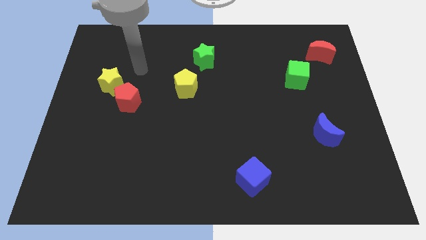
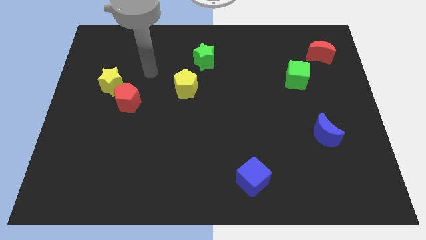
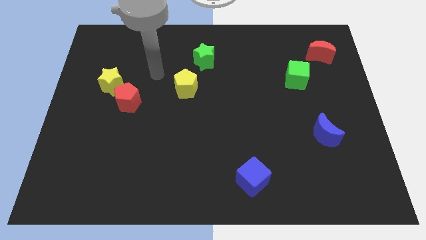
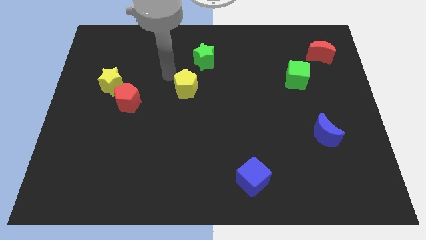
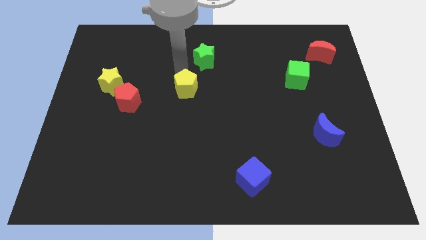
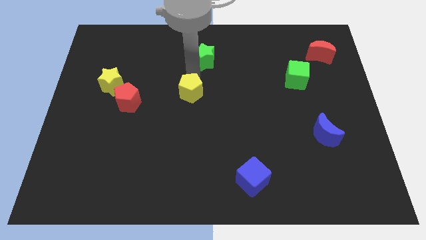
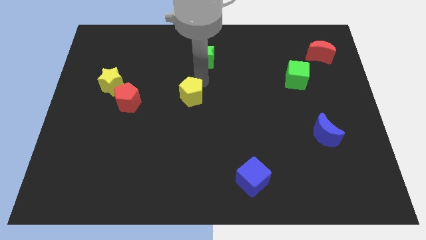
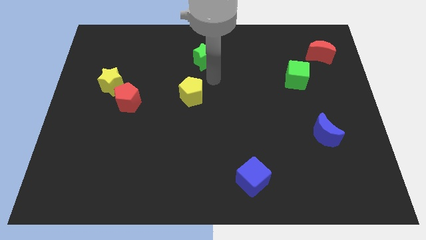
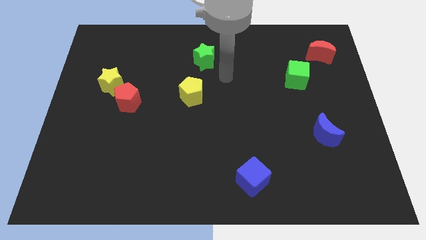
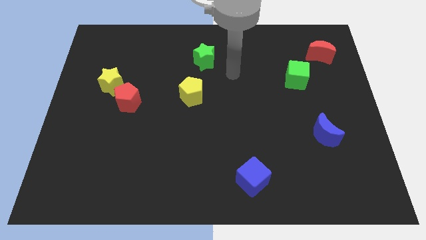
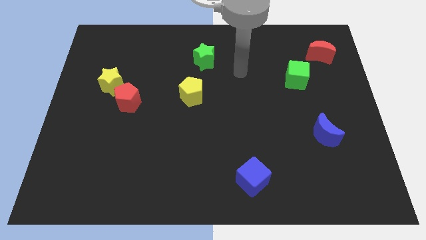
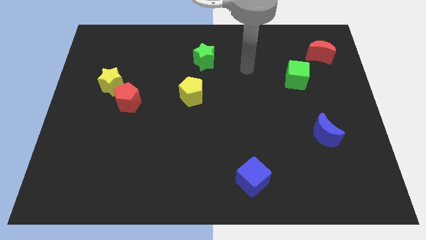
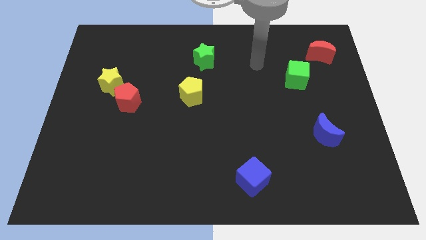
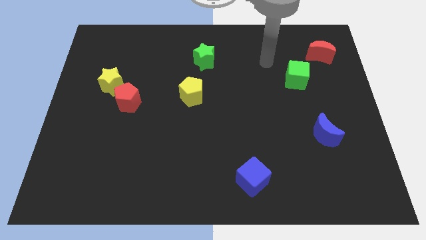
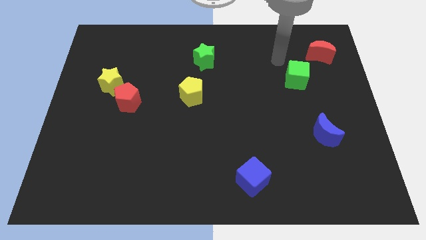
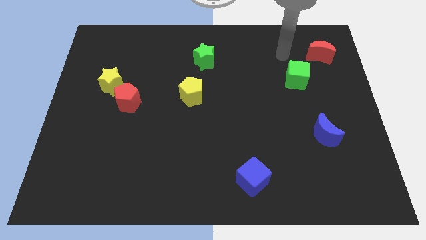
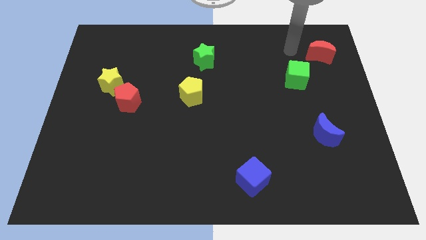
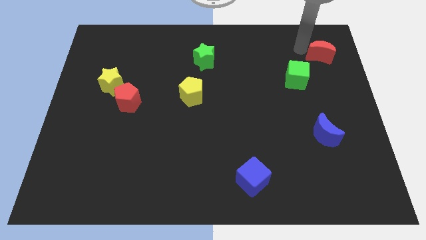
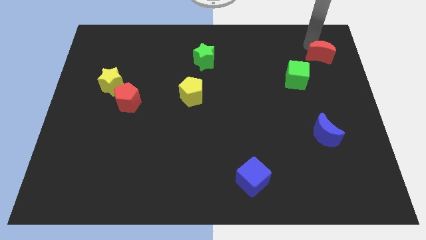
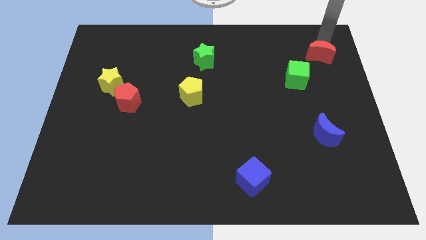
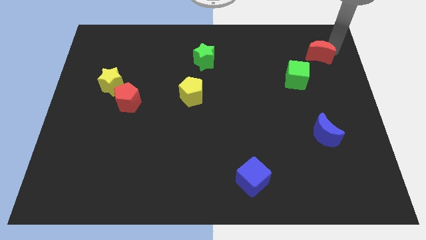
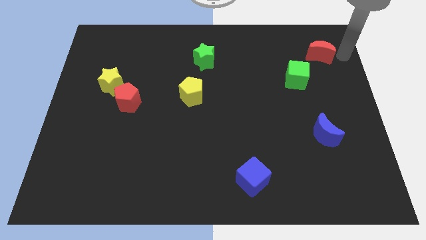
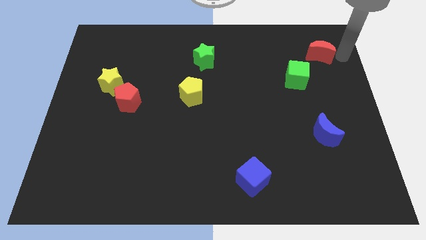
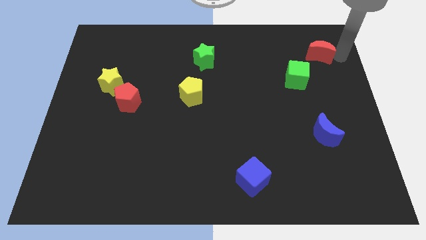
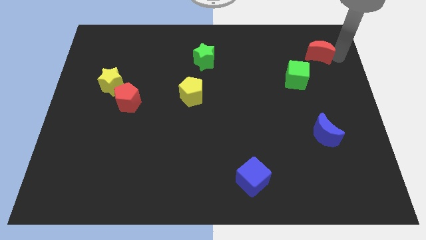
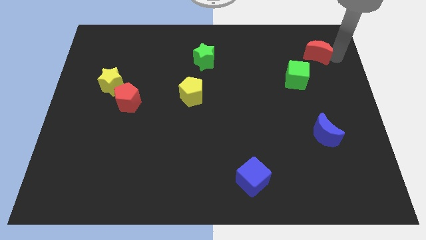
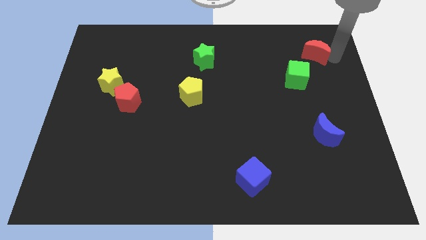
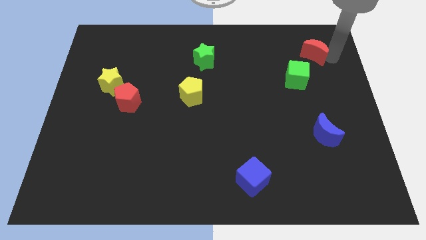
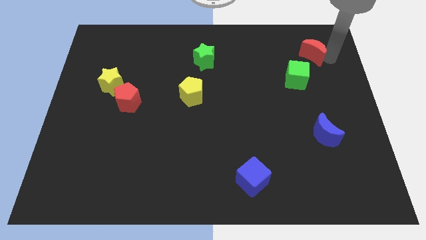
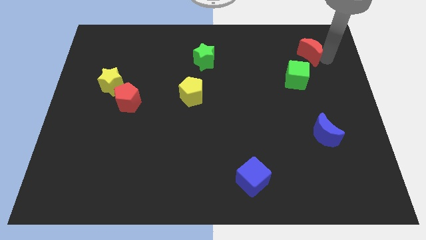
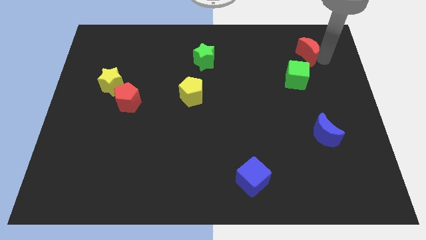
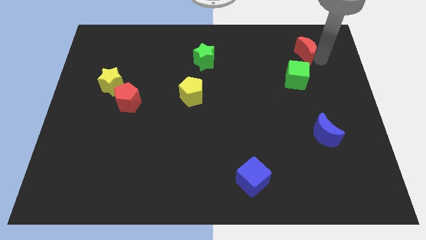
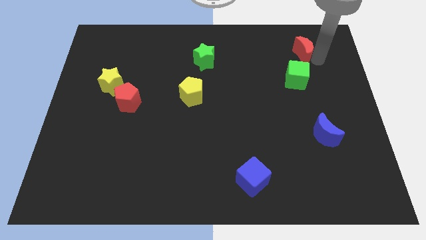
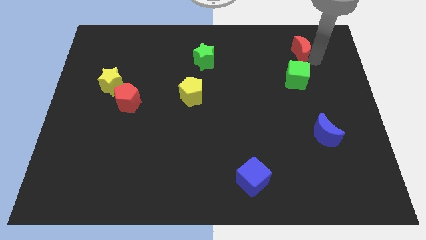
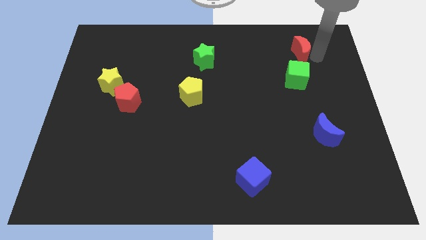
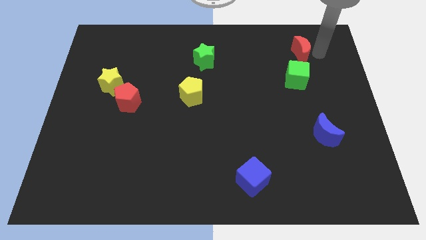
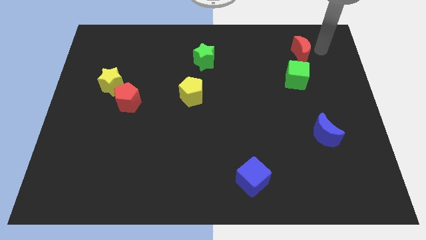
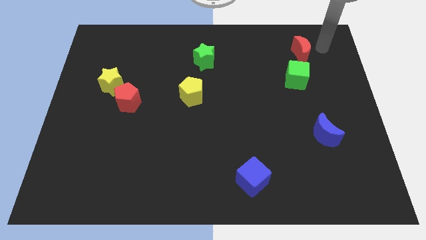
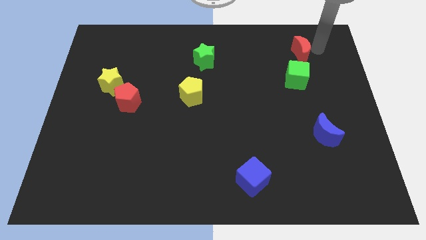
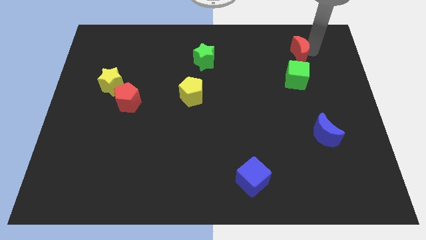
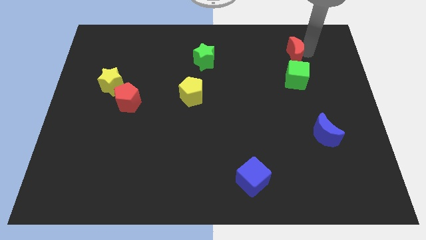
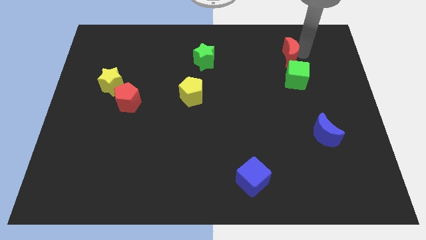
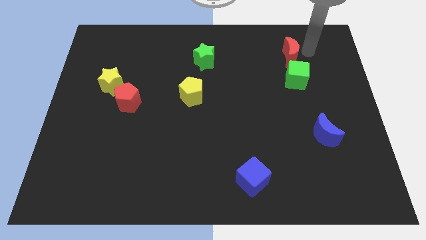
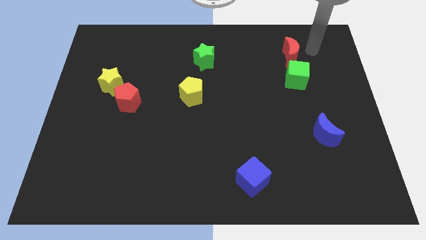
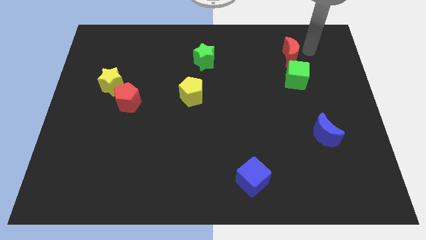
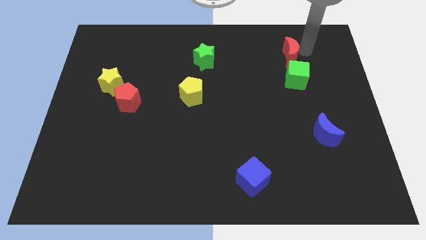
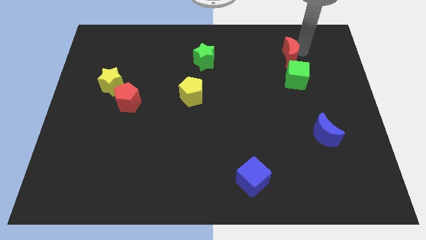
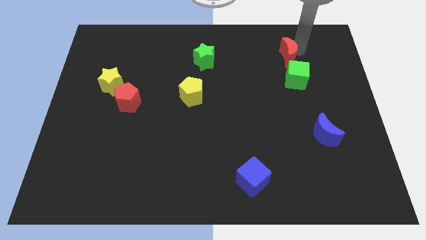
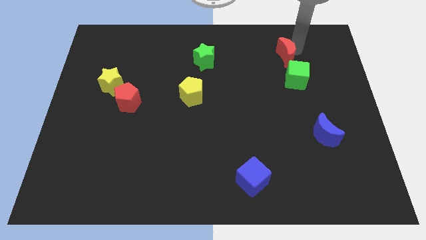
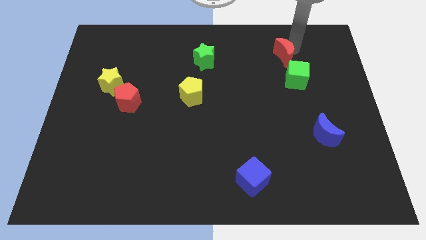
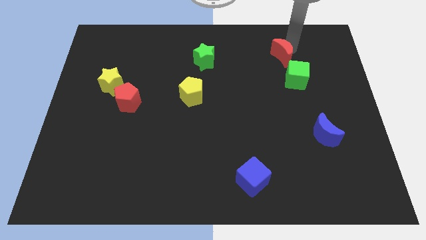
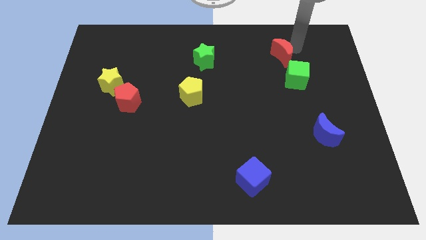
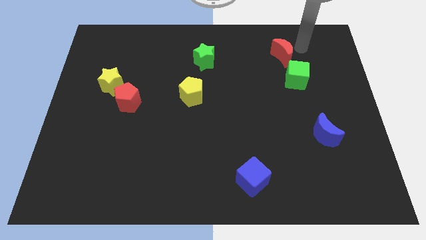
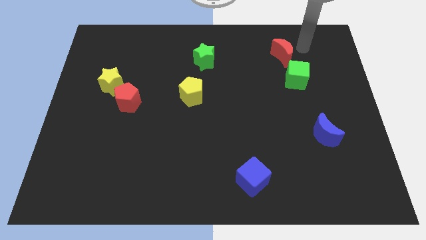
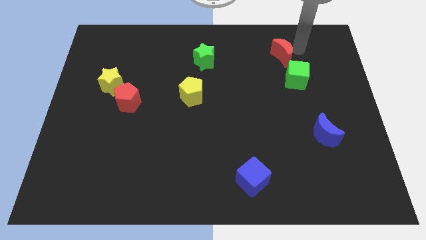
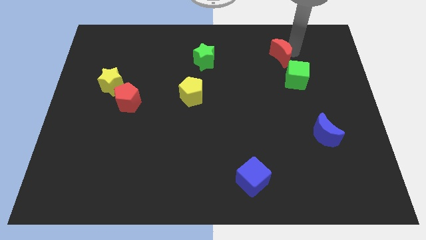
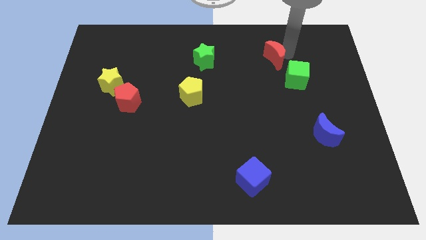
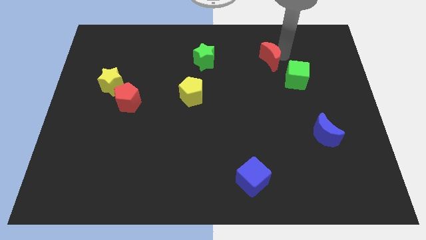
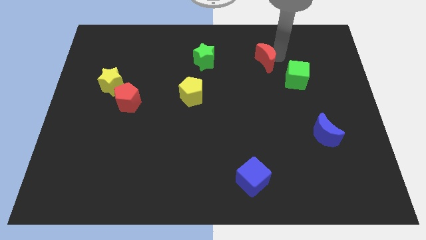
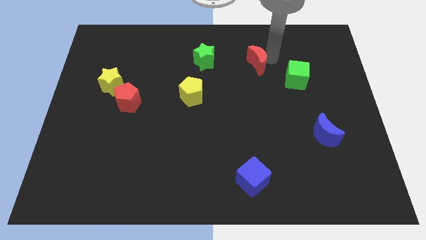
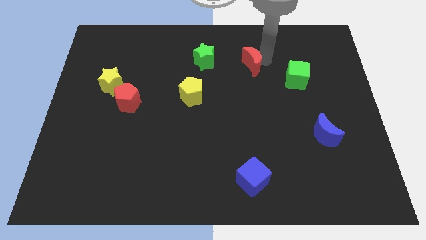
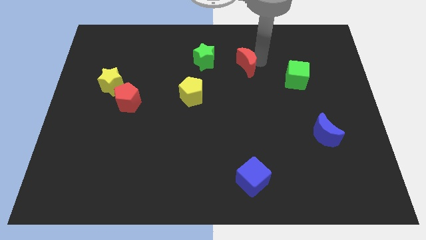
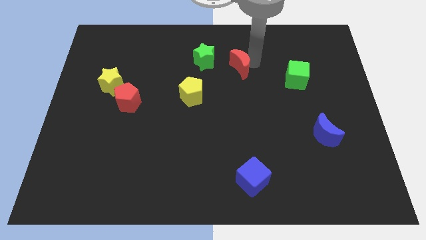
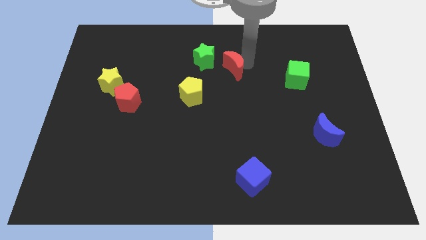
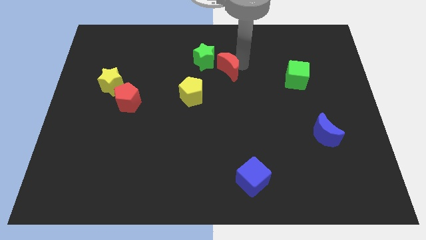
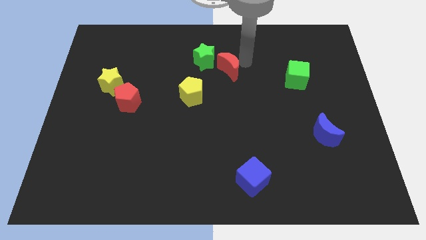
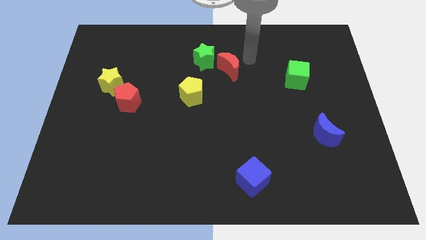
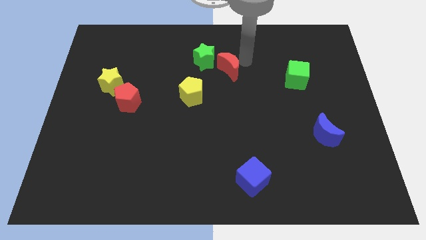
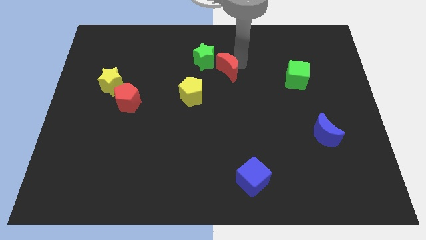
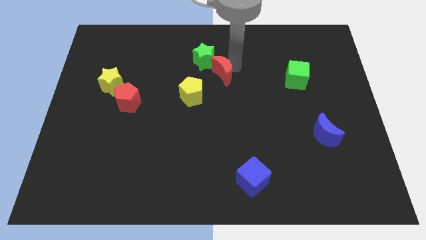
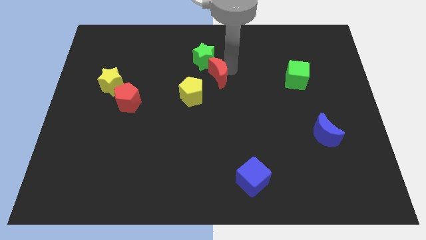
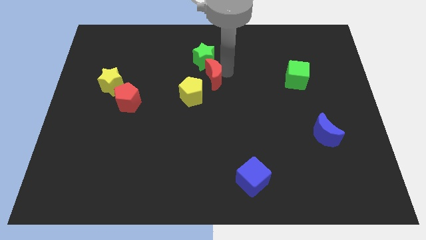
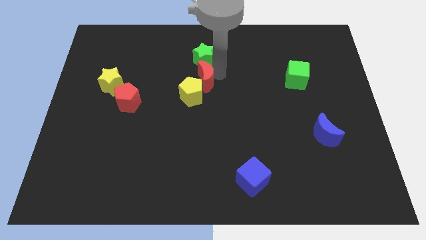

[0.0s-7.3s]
move the red moon towards the yellow pentagon
